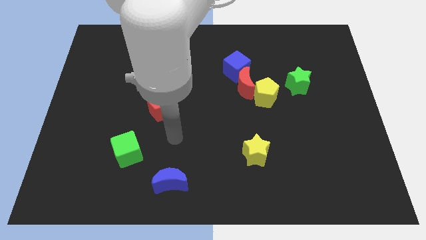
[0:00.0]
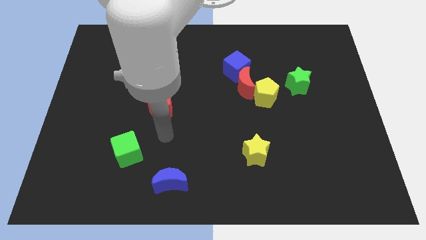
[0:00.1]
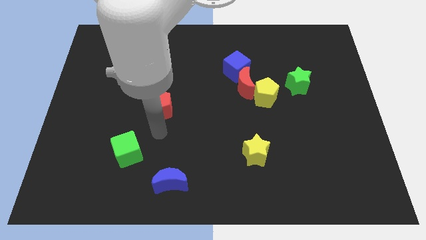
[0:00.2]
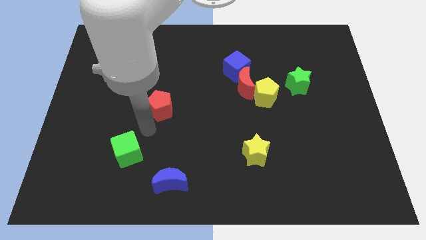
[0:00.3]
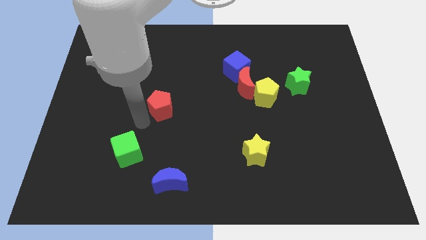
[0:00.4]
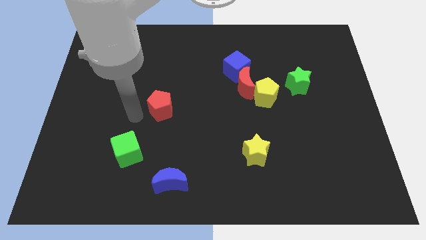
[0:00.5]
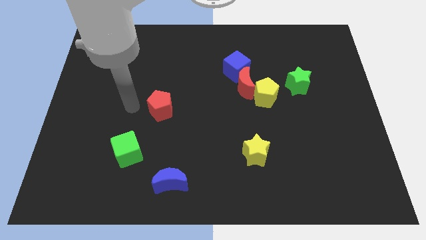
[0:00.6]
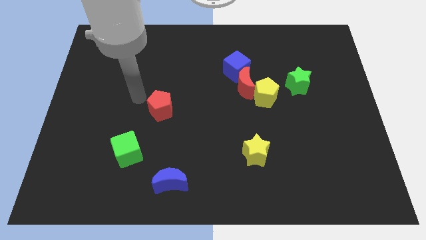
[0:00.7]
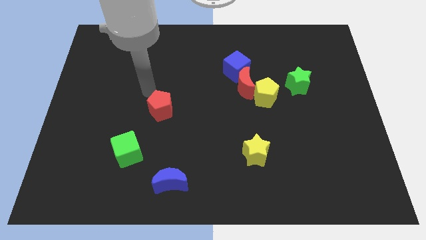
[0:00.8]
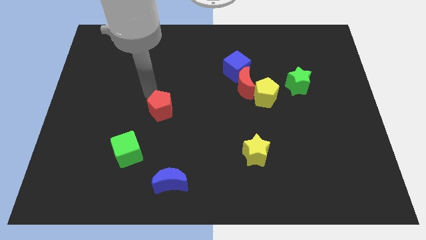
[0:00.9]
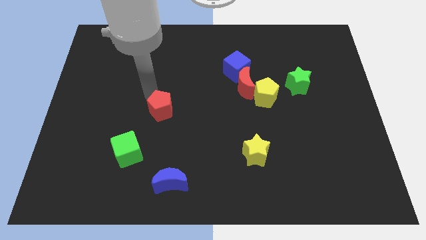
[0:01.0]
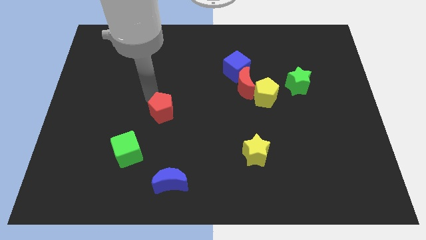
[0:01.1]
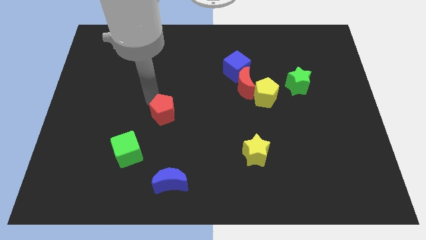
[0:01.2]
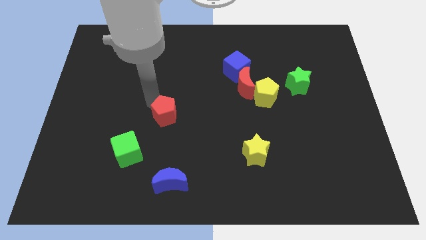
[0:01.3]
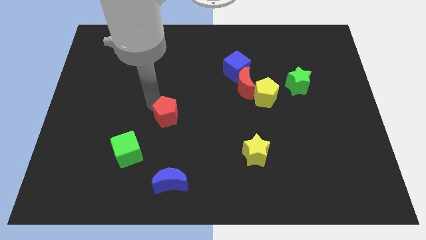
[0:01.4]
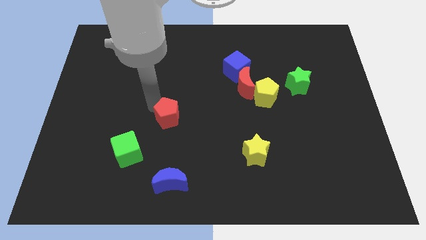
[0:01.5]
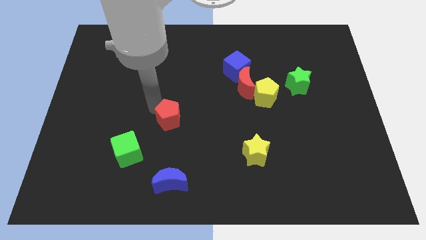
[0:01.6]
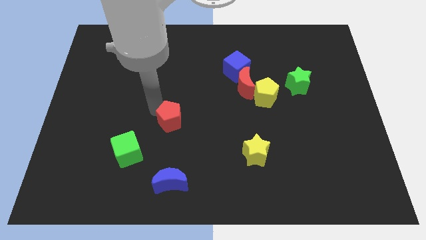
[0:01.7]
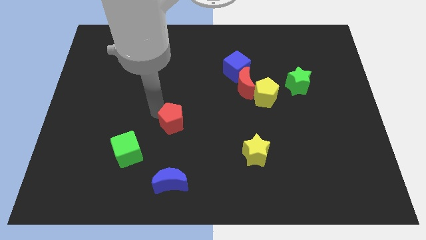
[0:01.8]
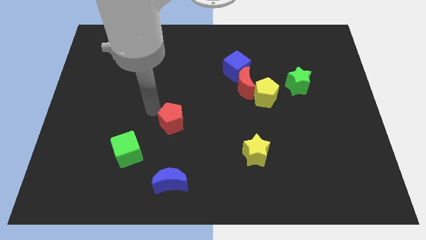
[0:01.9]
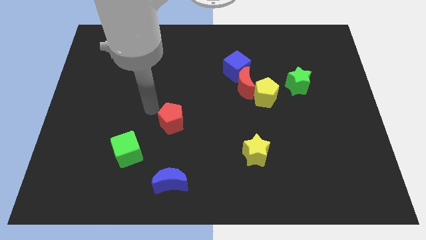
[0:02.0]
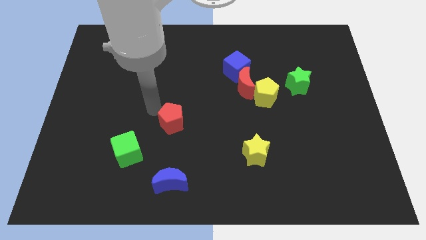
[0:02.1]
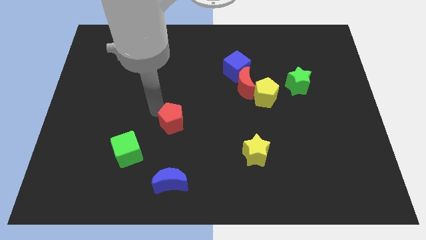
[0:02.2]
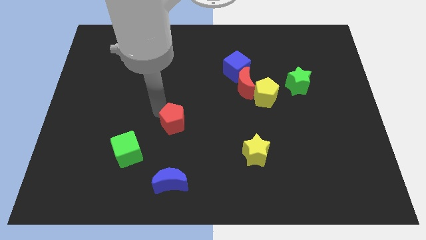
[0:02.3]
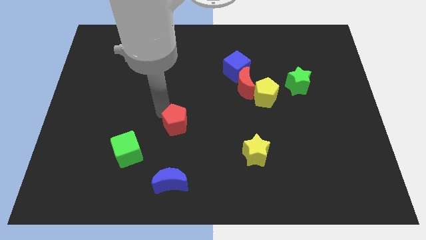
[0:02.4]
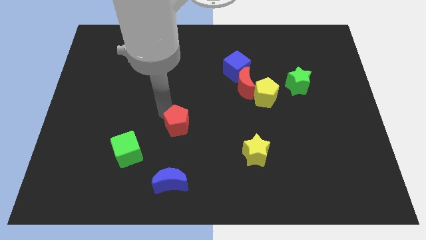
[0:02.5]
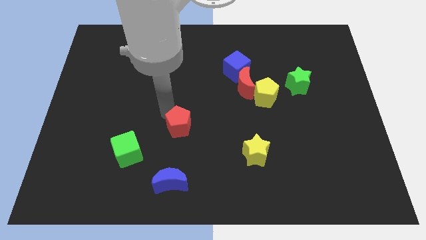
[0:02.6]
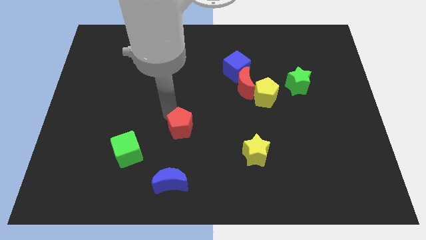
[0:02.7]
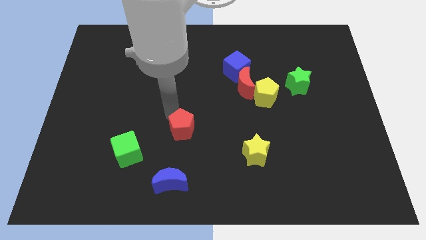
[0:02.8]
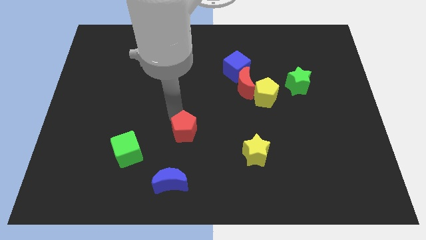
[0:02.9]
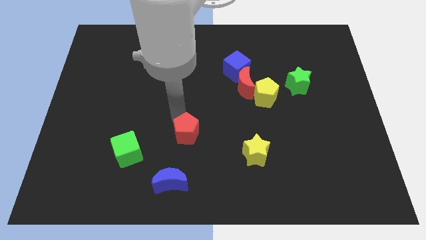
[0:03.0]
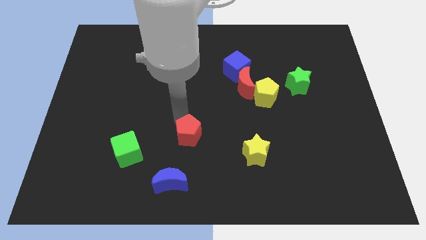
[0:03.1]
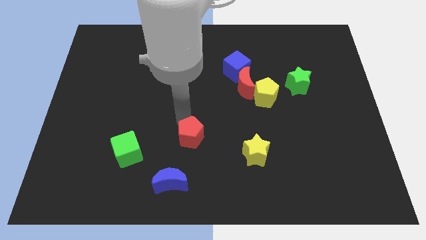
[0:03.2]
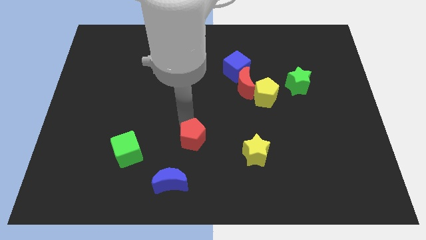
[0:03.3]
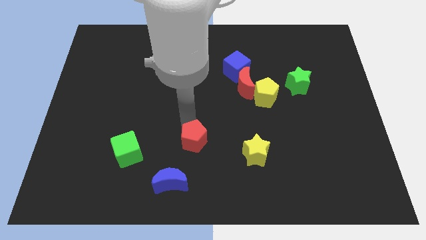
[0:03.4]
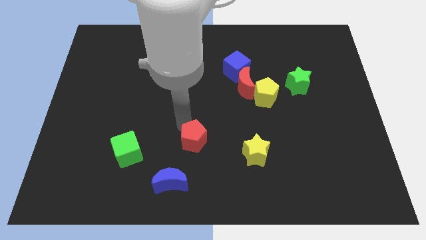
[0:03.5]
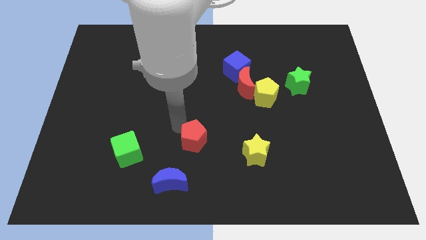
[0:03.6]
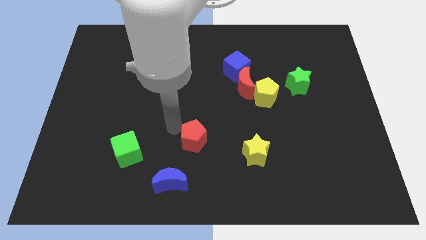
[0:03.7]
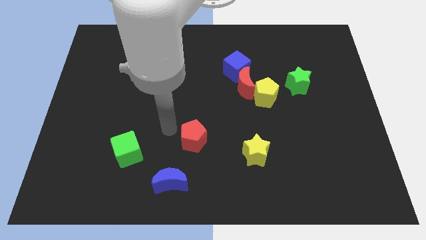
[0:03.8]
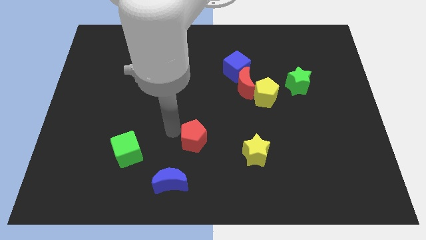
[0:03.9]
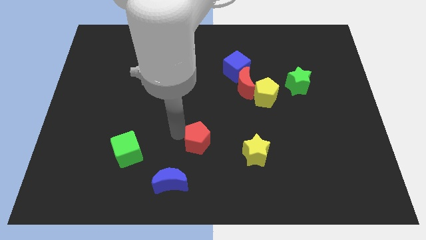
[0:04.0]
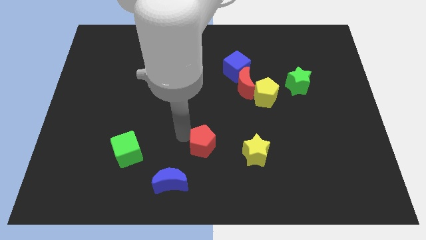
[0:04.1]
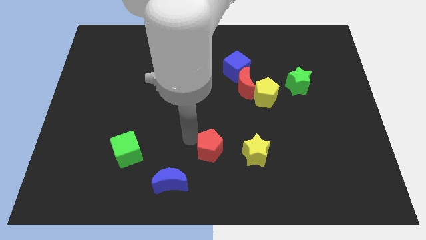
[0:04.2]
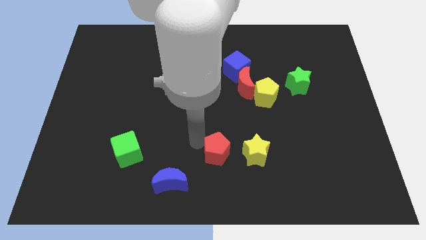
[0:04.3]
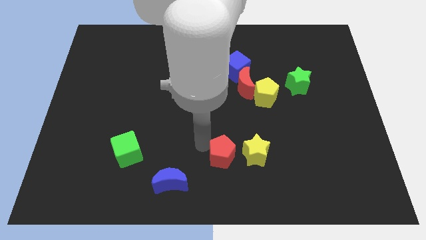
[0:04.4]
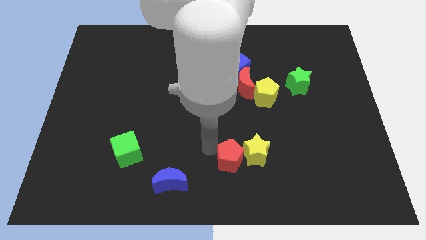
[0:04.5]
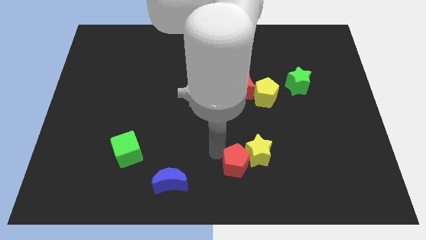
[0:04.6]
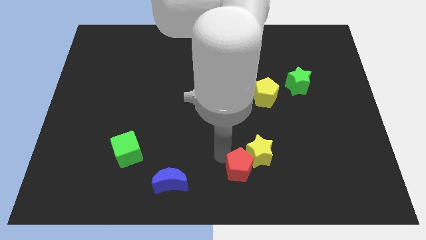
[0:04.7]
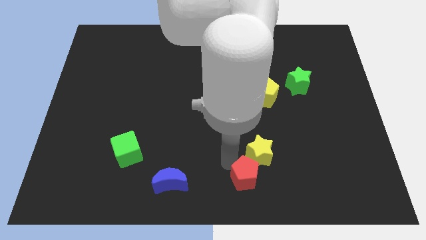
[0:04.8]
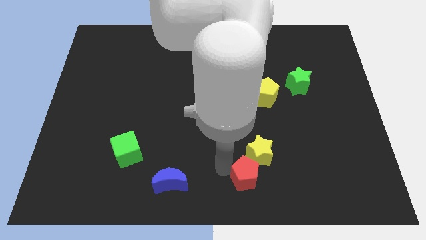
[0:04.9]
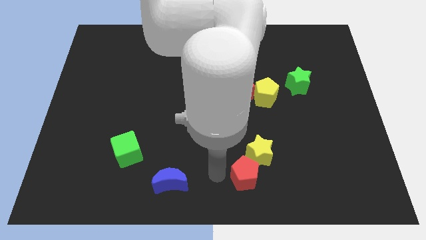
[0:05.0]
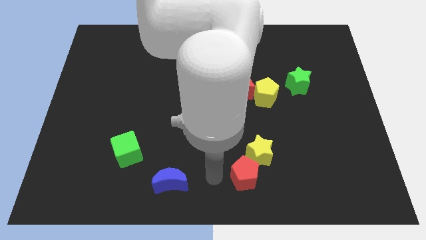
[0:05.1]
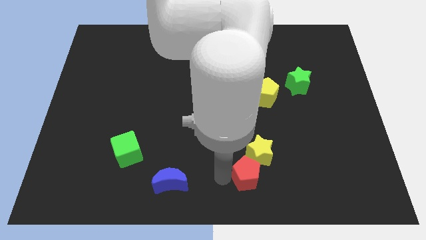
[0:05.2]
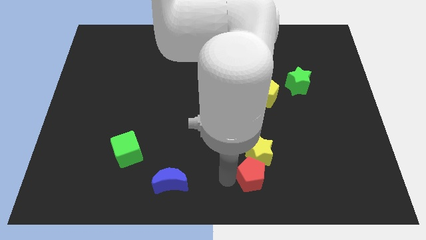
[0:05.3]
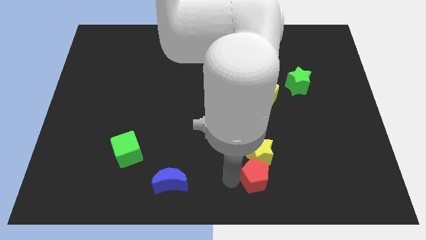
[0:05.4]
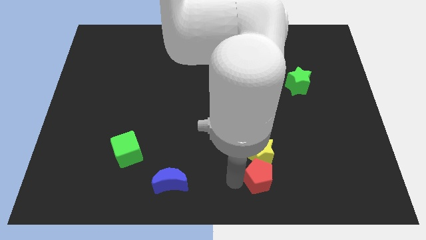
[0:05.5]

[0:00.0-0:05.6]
move the red pentagon diagonally down and to the right of the yellow star

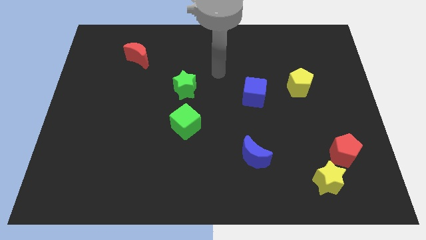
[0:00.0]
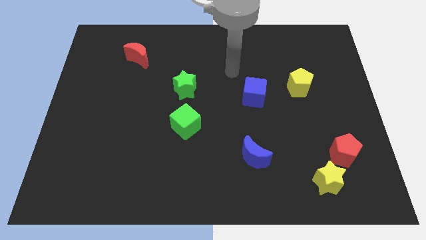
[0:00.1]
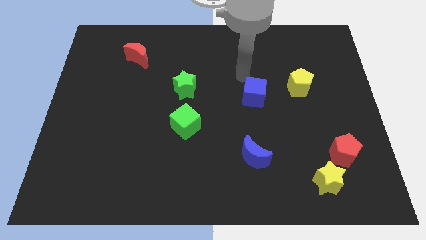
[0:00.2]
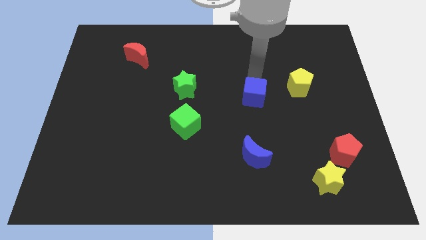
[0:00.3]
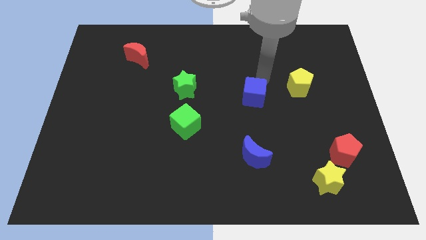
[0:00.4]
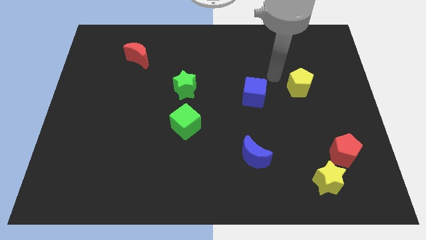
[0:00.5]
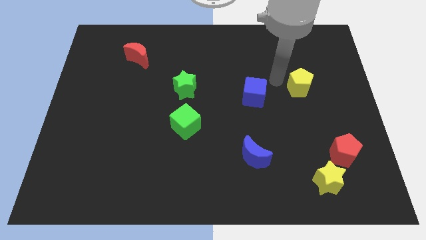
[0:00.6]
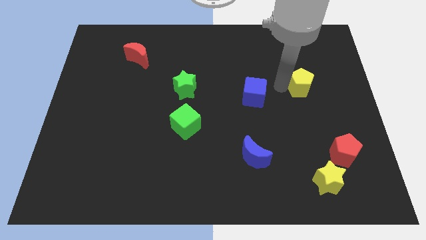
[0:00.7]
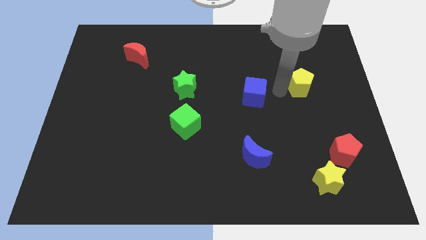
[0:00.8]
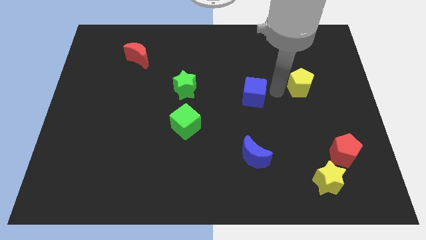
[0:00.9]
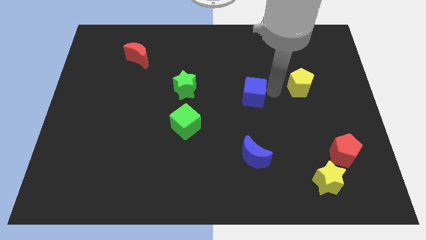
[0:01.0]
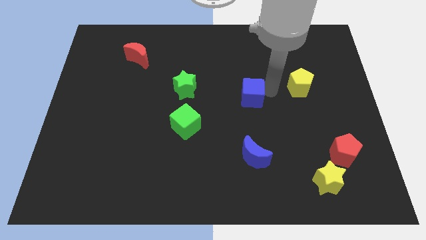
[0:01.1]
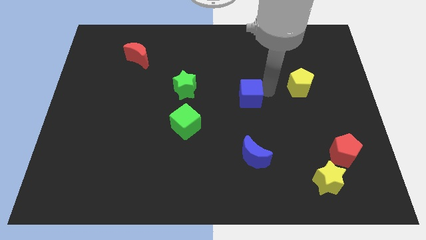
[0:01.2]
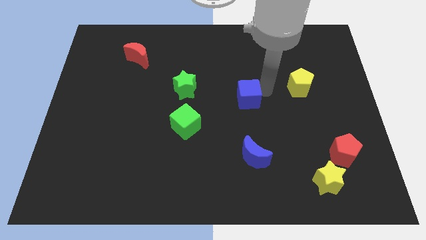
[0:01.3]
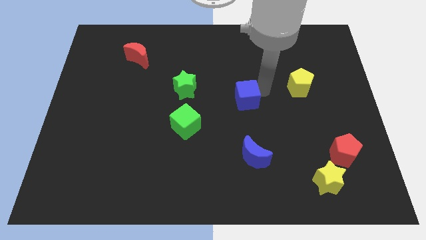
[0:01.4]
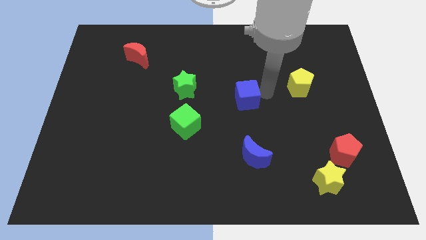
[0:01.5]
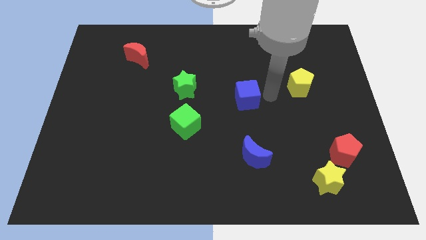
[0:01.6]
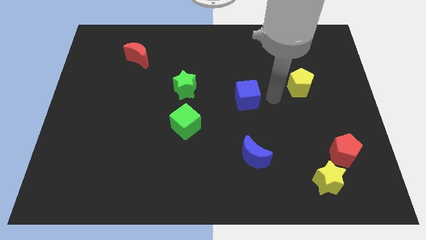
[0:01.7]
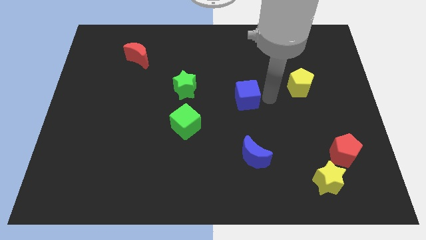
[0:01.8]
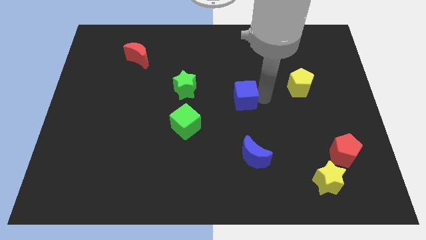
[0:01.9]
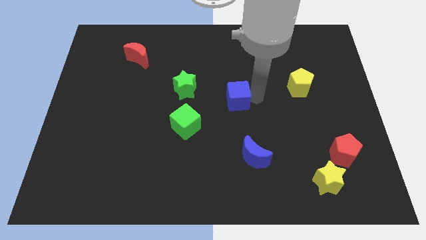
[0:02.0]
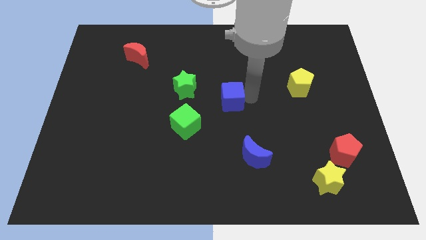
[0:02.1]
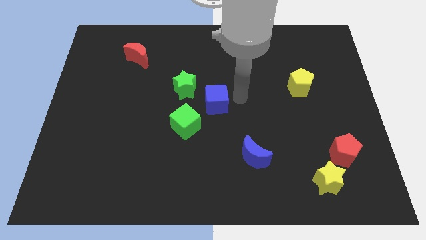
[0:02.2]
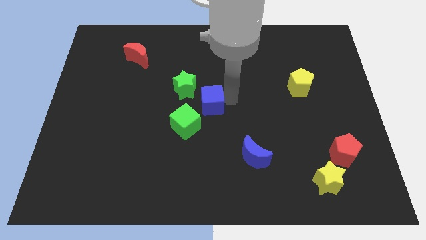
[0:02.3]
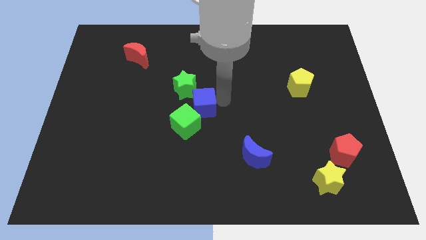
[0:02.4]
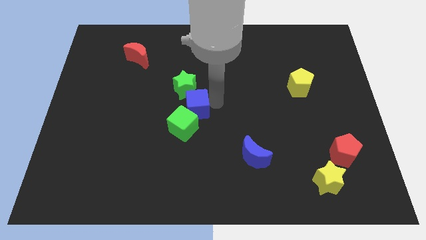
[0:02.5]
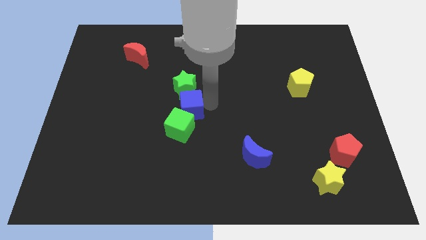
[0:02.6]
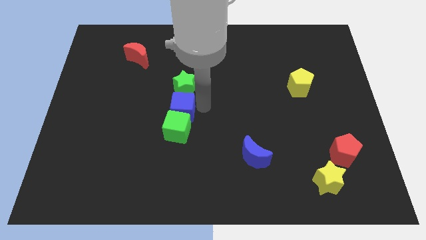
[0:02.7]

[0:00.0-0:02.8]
move the blue cube diagonally down and to the left of the green star
